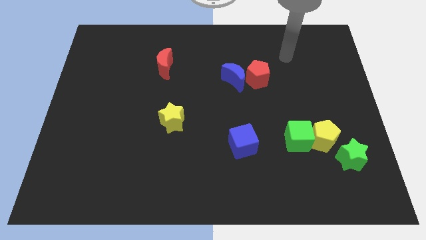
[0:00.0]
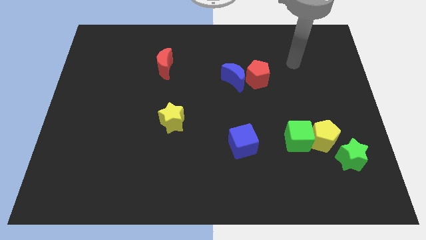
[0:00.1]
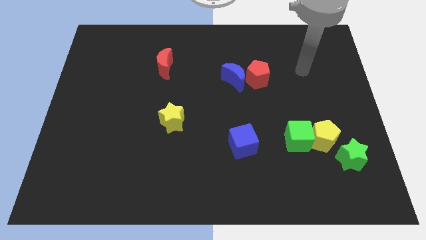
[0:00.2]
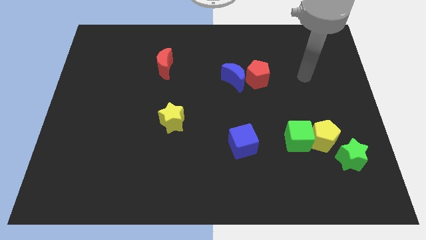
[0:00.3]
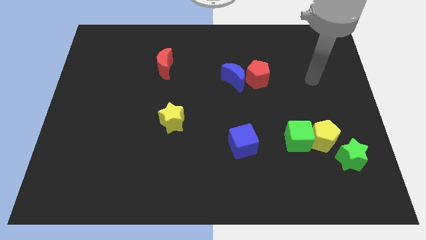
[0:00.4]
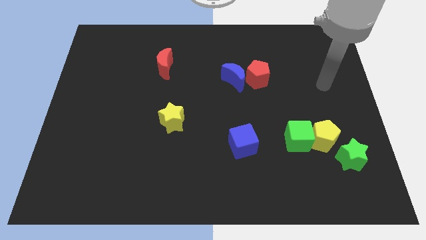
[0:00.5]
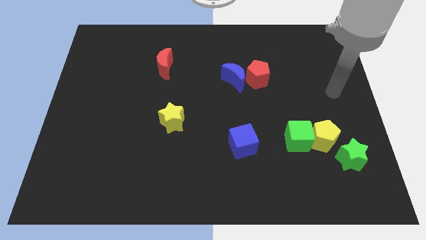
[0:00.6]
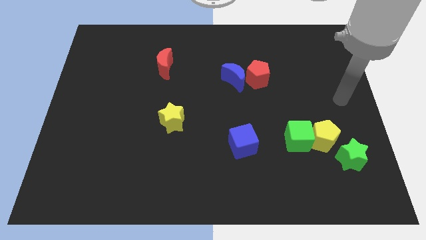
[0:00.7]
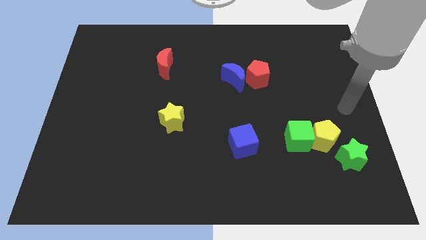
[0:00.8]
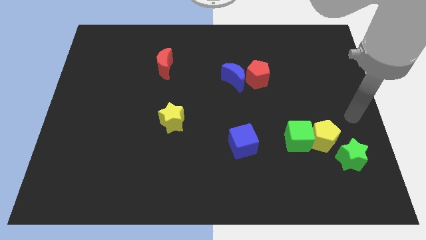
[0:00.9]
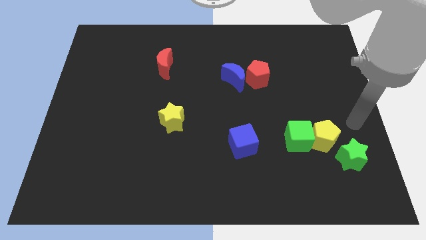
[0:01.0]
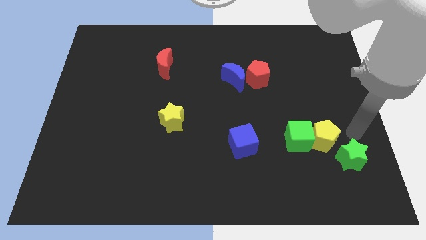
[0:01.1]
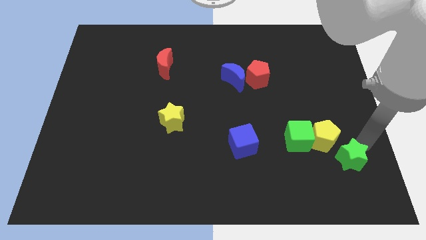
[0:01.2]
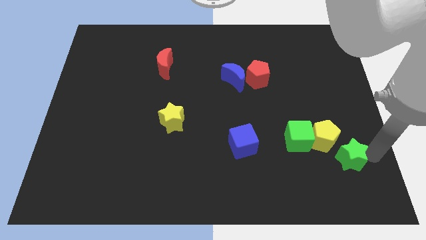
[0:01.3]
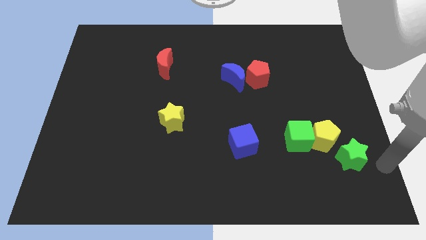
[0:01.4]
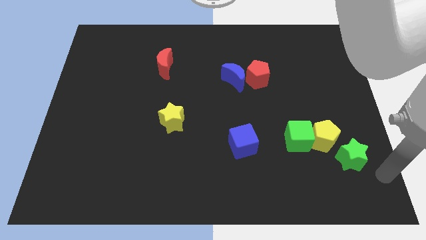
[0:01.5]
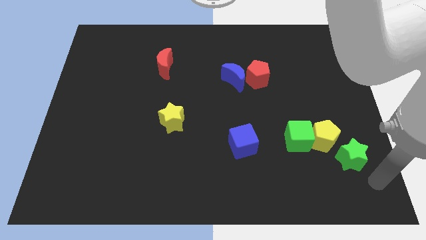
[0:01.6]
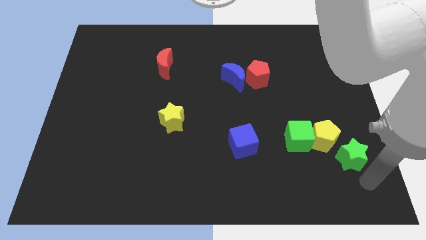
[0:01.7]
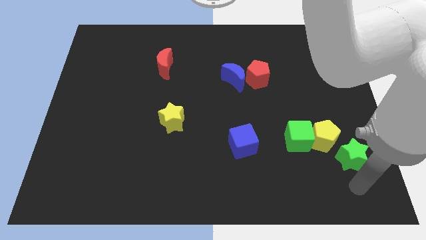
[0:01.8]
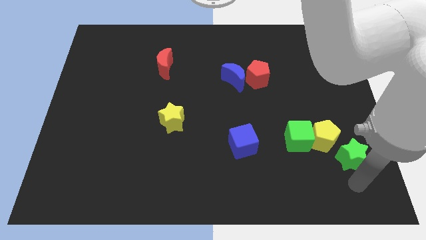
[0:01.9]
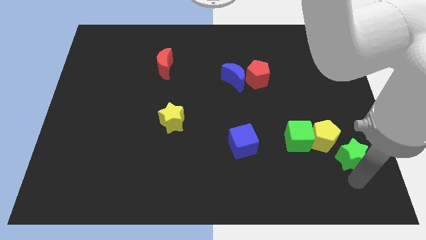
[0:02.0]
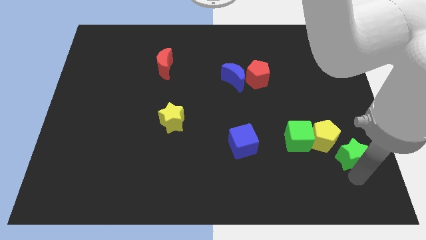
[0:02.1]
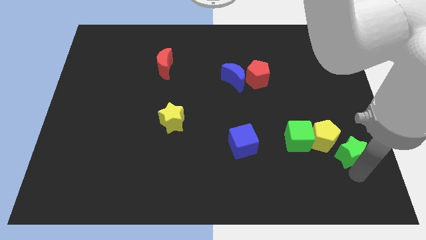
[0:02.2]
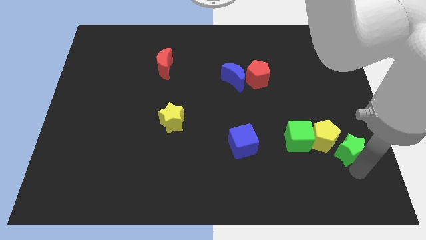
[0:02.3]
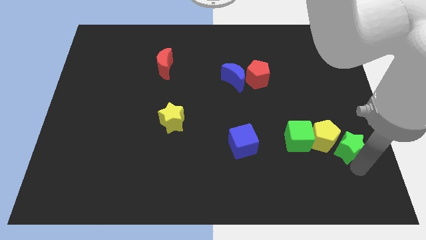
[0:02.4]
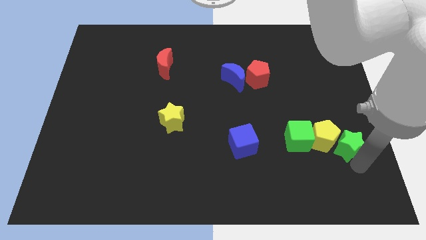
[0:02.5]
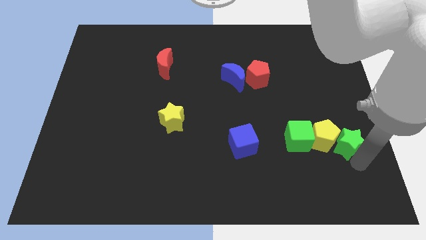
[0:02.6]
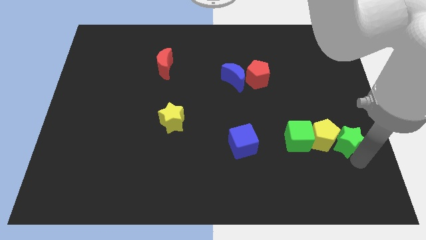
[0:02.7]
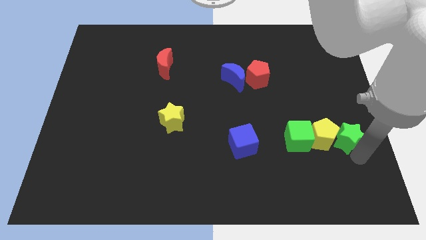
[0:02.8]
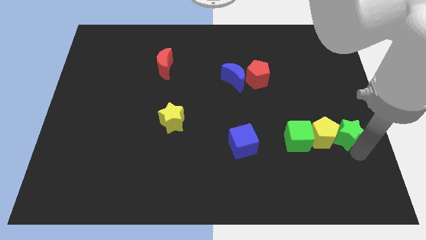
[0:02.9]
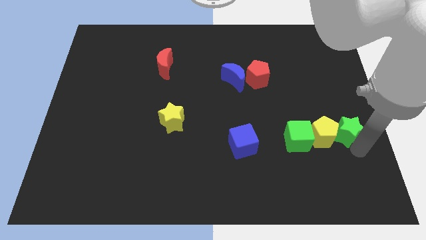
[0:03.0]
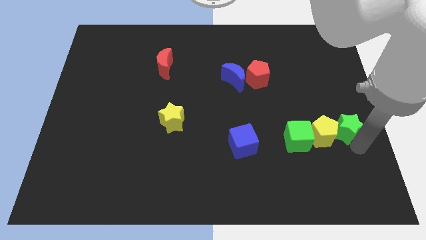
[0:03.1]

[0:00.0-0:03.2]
slide the green star upwards somewhat

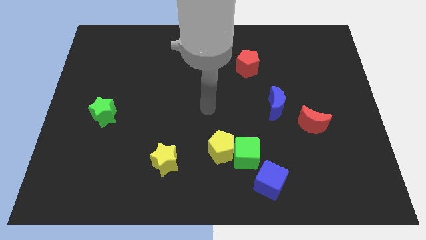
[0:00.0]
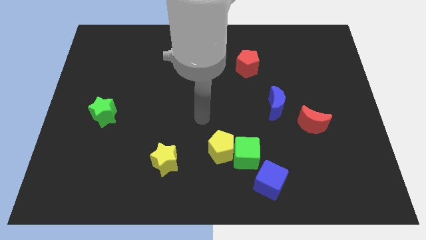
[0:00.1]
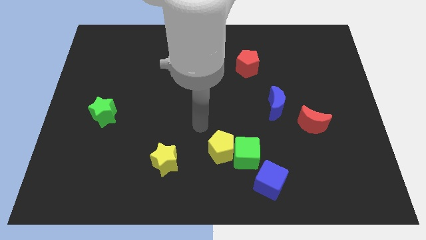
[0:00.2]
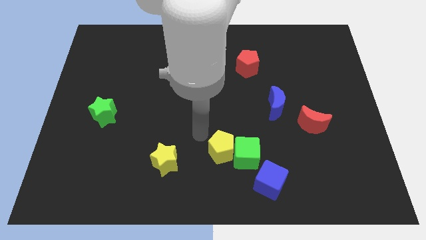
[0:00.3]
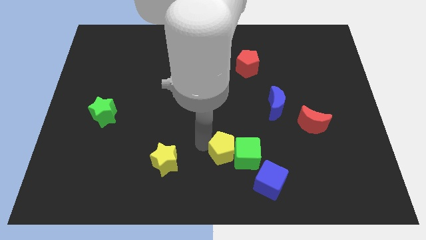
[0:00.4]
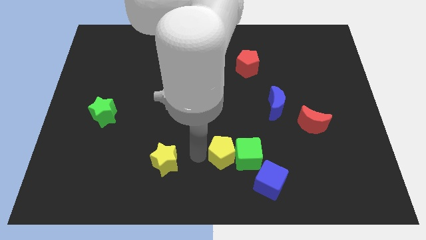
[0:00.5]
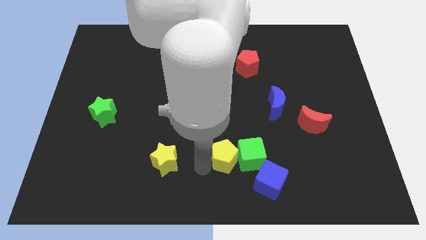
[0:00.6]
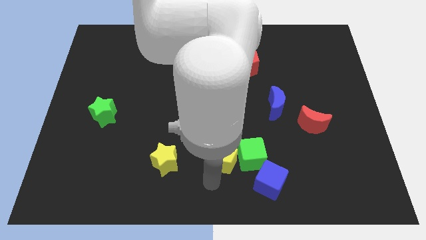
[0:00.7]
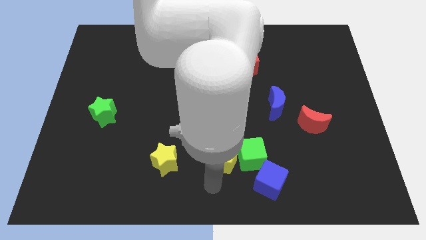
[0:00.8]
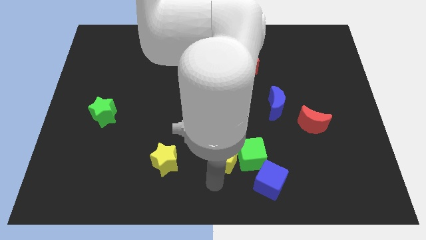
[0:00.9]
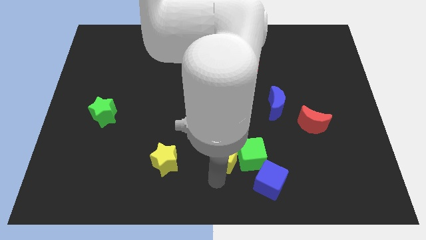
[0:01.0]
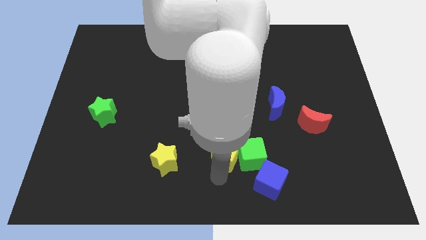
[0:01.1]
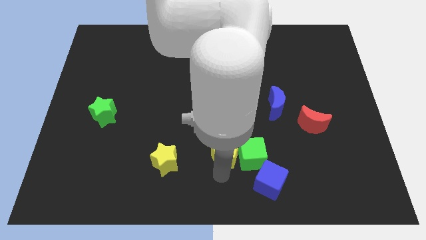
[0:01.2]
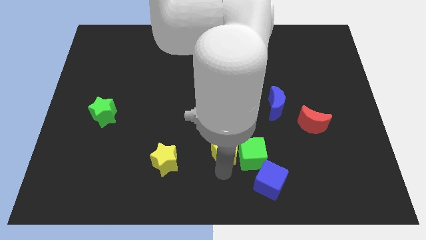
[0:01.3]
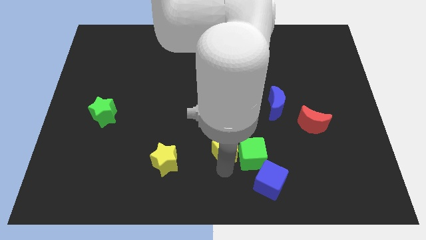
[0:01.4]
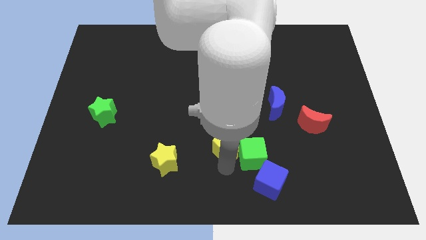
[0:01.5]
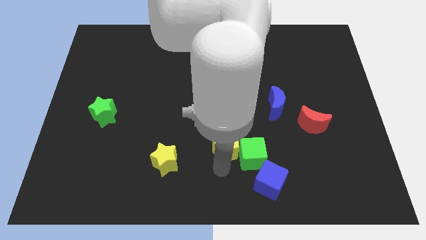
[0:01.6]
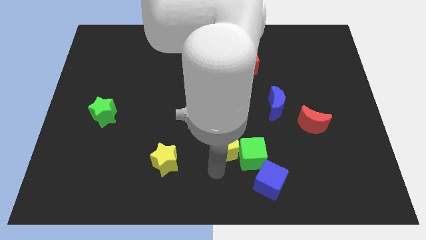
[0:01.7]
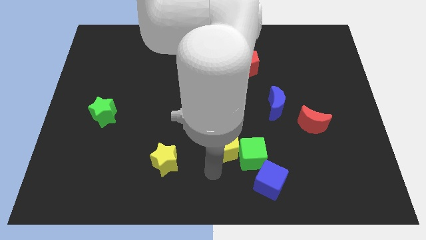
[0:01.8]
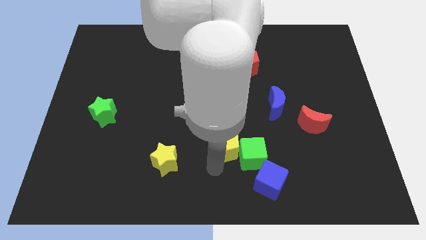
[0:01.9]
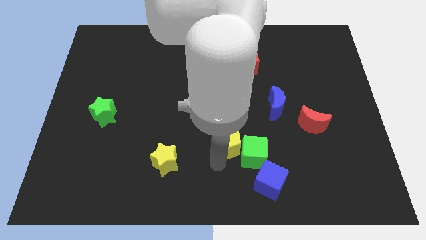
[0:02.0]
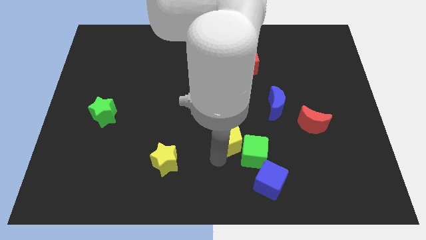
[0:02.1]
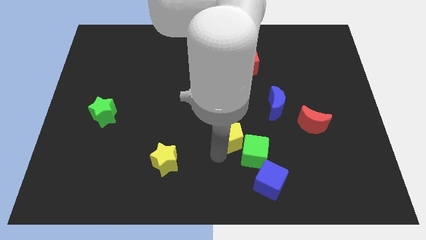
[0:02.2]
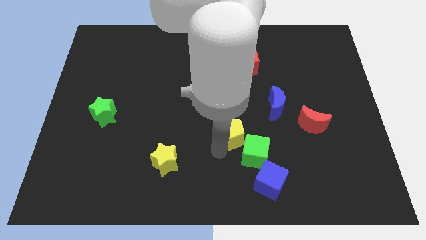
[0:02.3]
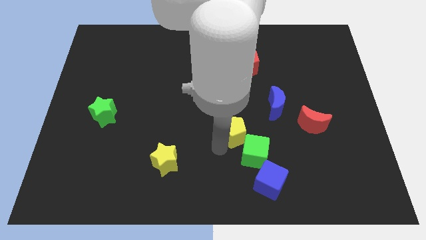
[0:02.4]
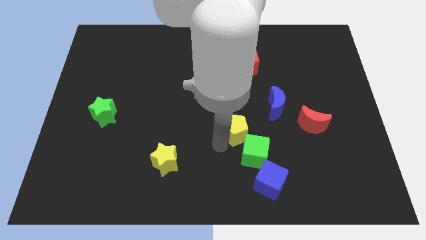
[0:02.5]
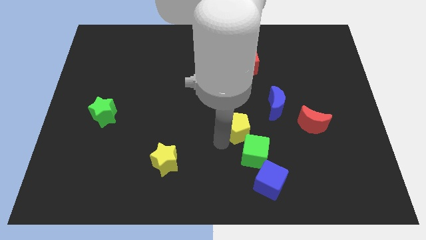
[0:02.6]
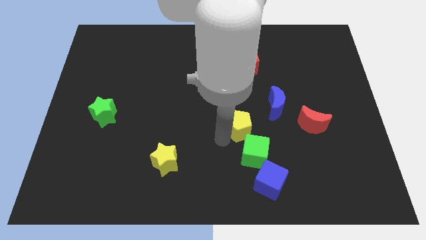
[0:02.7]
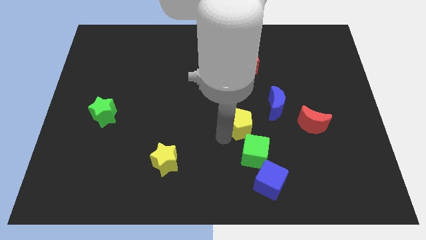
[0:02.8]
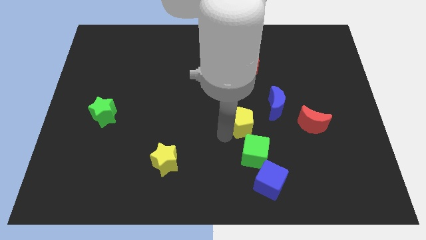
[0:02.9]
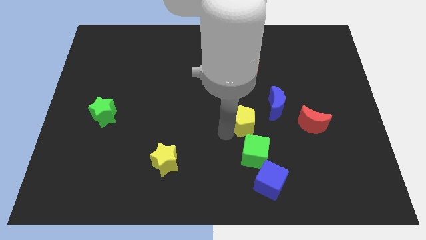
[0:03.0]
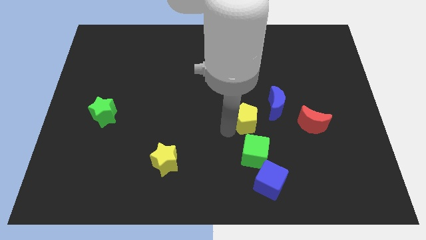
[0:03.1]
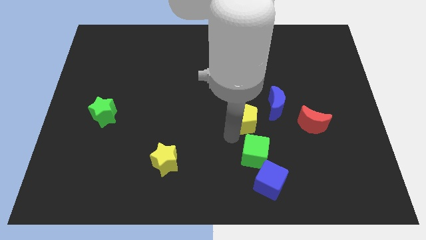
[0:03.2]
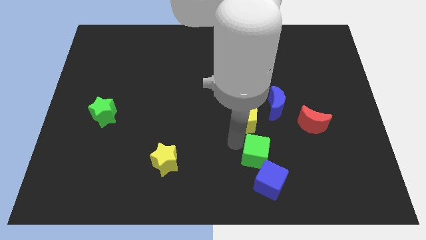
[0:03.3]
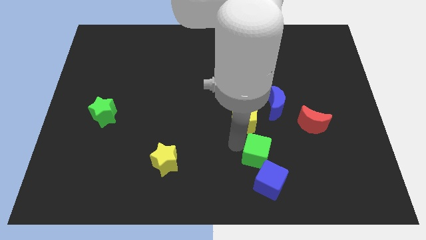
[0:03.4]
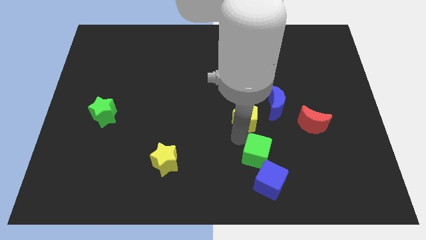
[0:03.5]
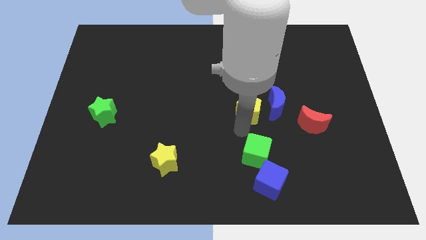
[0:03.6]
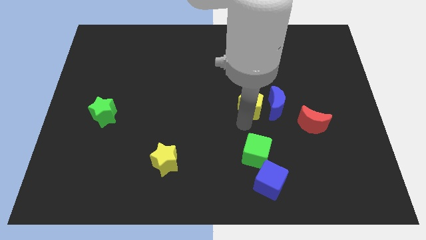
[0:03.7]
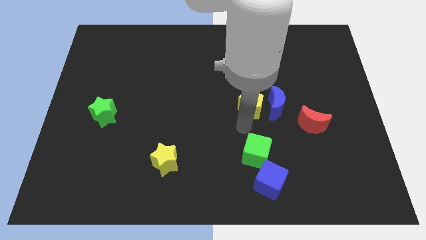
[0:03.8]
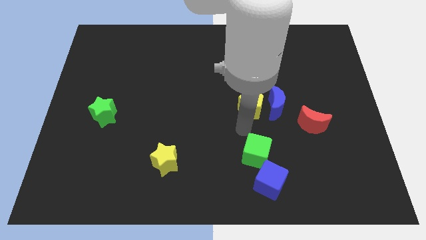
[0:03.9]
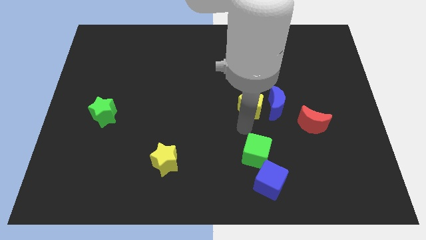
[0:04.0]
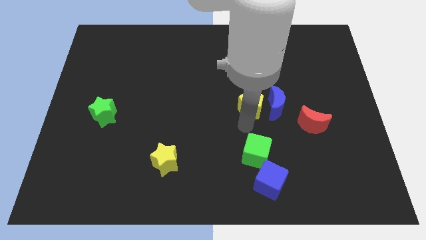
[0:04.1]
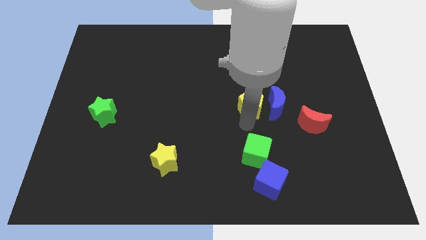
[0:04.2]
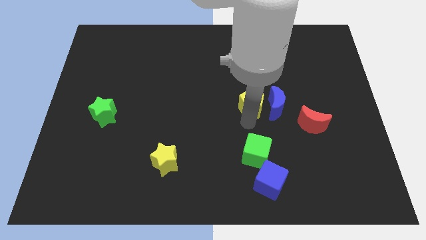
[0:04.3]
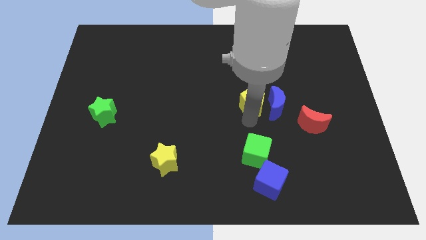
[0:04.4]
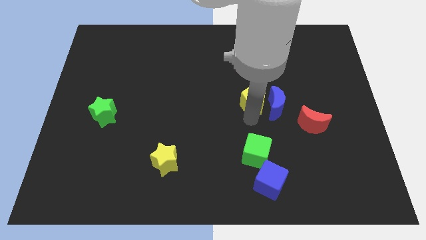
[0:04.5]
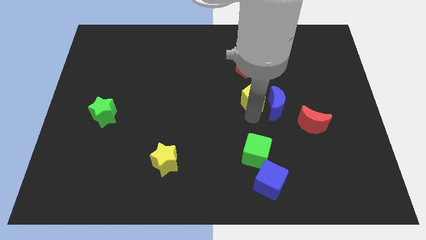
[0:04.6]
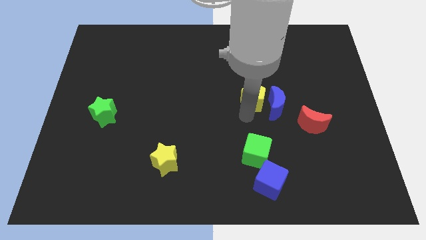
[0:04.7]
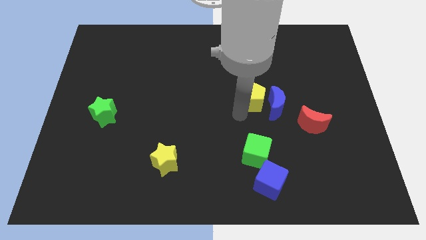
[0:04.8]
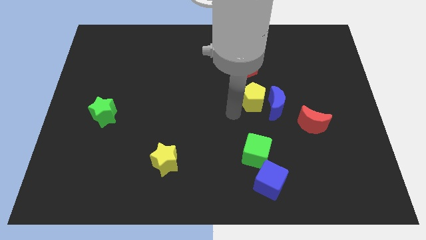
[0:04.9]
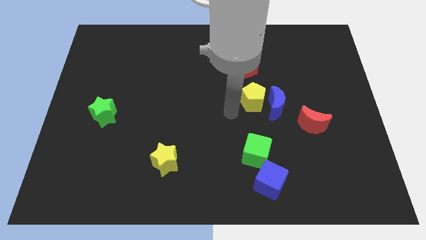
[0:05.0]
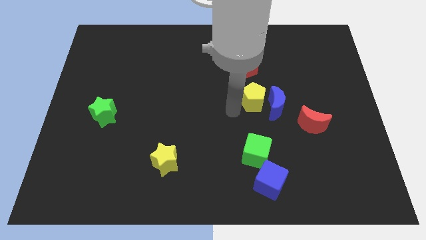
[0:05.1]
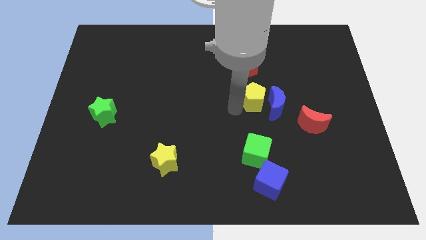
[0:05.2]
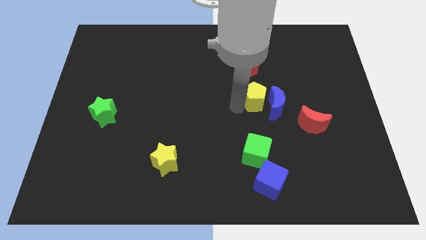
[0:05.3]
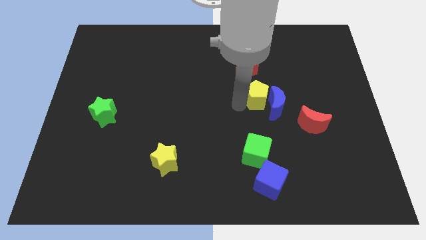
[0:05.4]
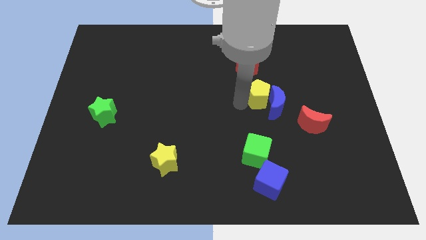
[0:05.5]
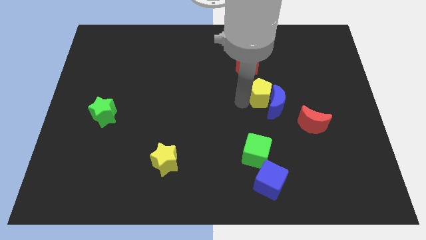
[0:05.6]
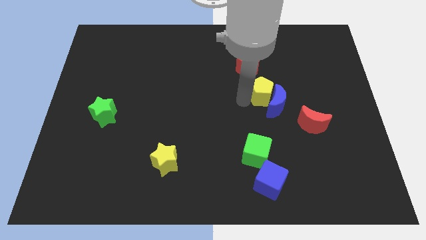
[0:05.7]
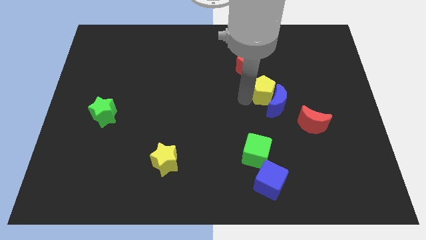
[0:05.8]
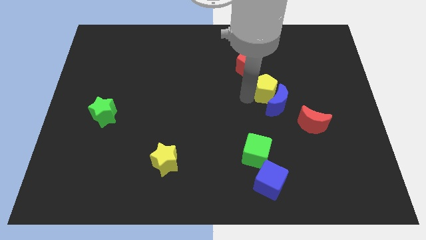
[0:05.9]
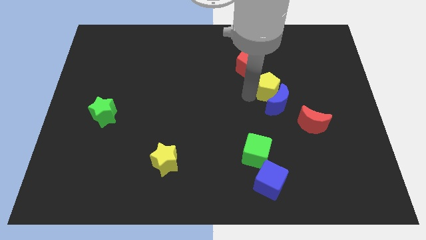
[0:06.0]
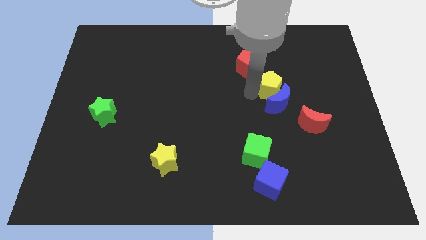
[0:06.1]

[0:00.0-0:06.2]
slide the yellow pentagon diagonally upwards and right
